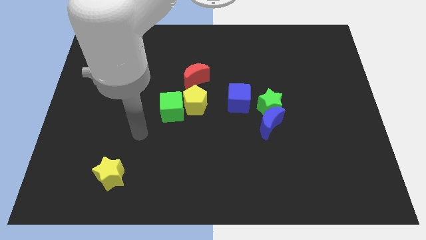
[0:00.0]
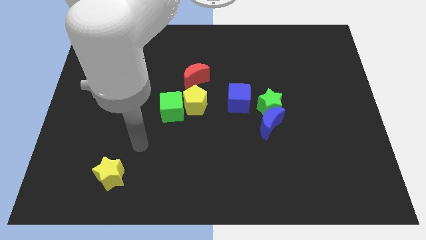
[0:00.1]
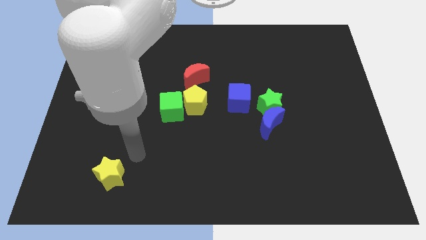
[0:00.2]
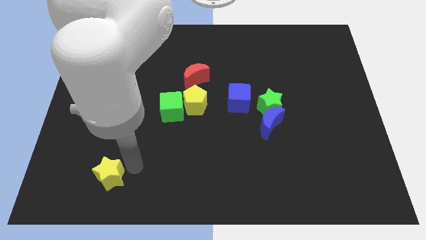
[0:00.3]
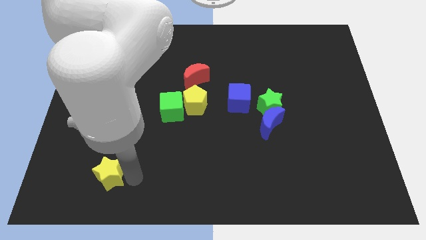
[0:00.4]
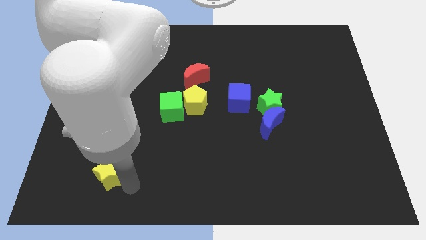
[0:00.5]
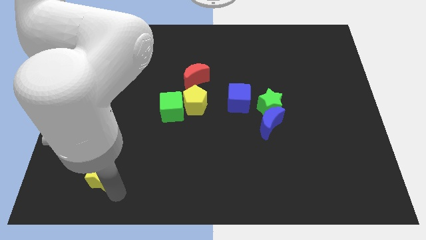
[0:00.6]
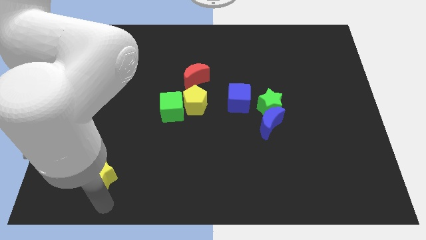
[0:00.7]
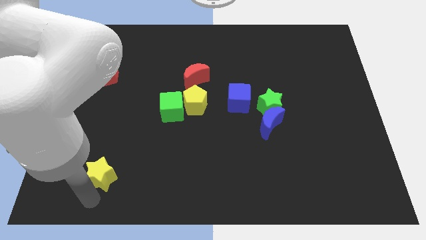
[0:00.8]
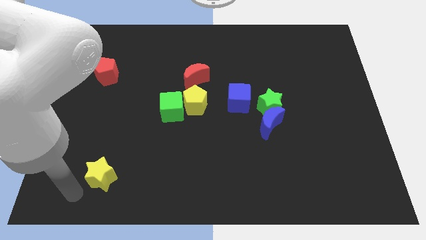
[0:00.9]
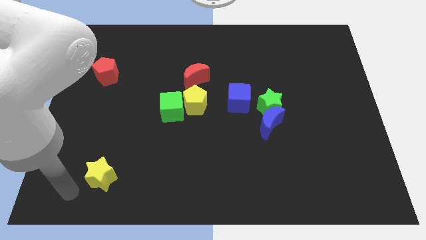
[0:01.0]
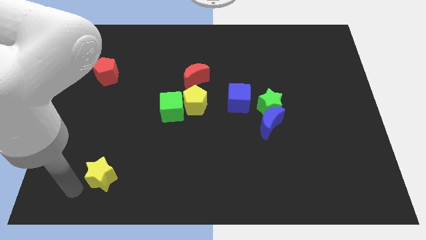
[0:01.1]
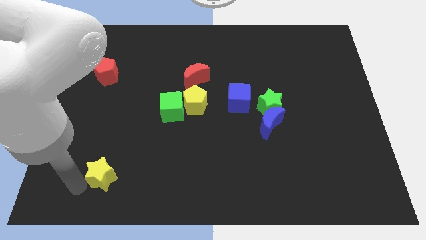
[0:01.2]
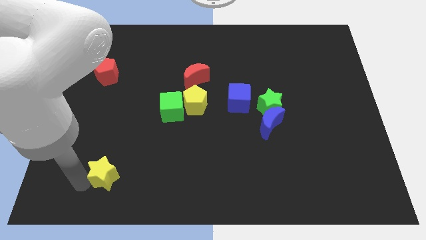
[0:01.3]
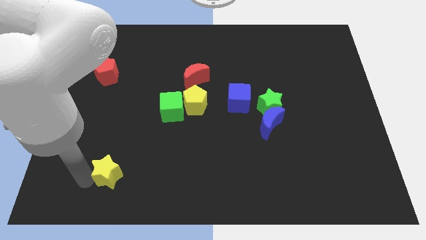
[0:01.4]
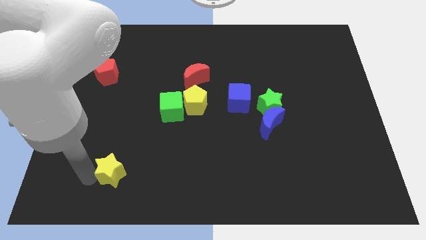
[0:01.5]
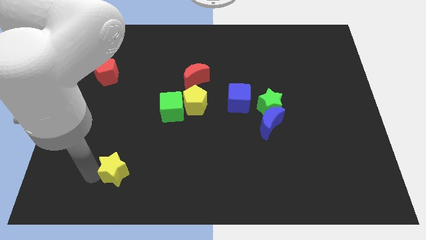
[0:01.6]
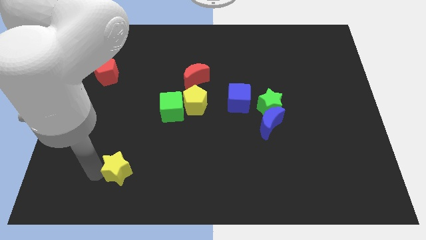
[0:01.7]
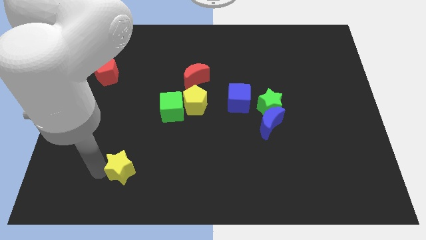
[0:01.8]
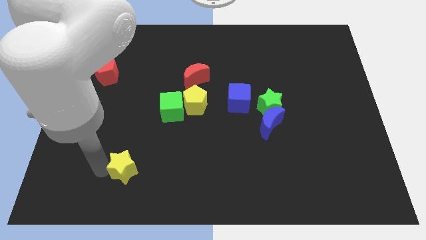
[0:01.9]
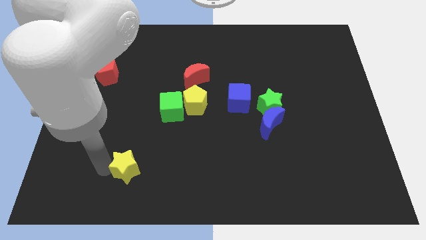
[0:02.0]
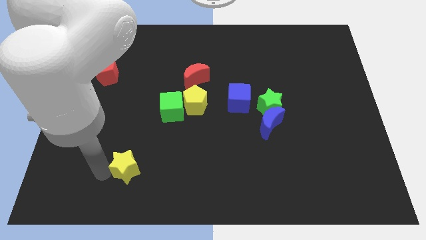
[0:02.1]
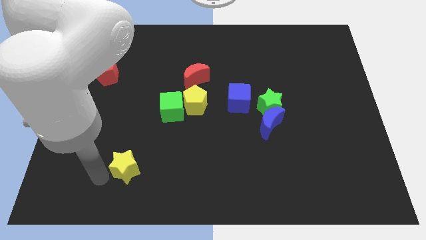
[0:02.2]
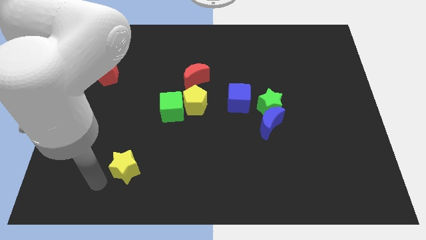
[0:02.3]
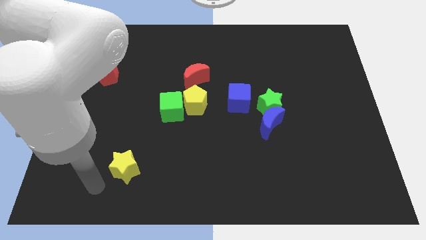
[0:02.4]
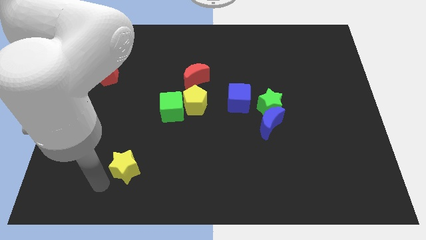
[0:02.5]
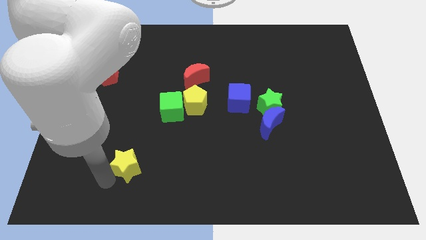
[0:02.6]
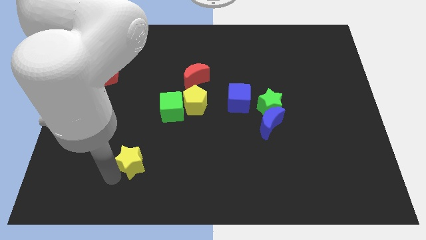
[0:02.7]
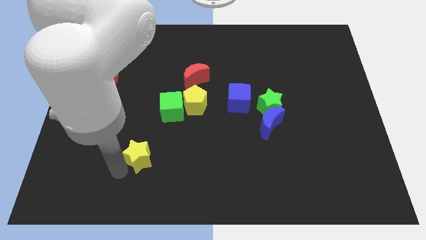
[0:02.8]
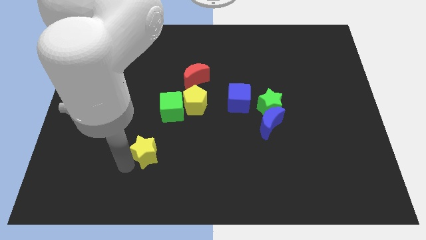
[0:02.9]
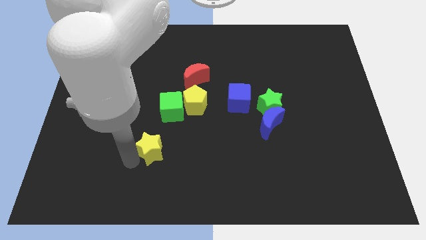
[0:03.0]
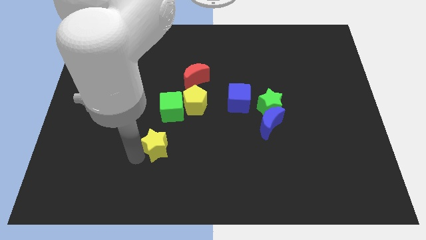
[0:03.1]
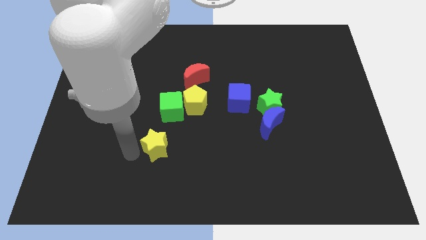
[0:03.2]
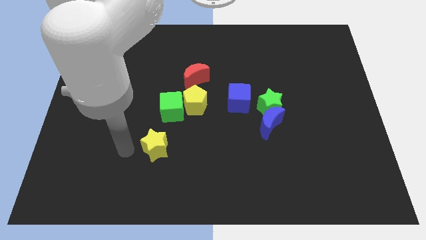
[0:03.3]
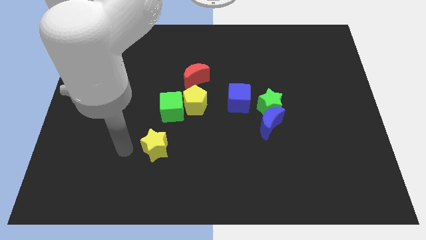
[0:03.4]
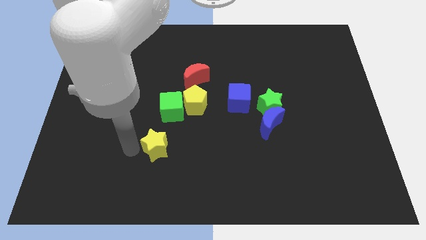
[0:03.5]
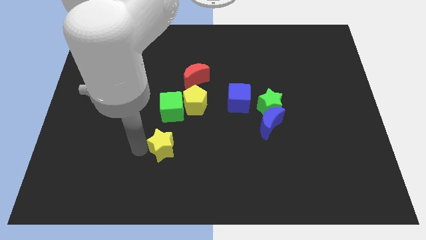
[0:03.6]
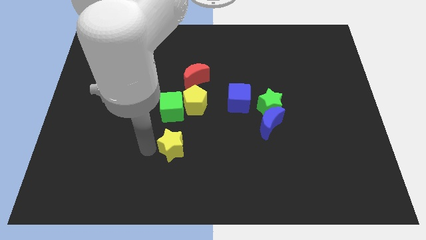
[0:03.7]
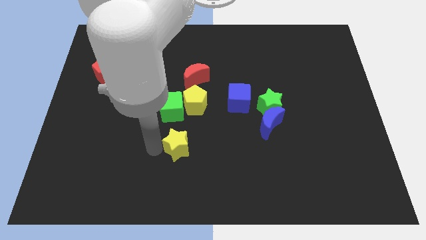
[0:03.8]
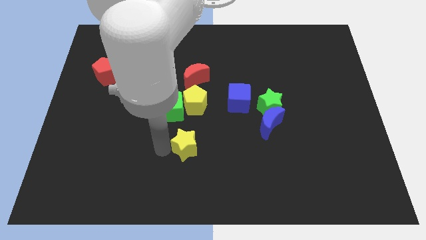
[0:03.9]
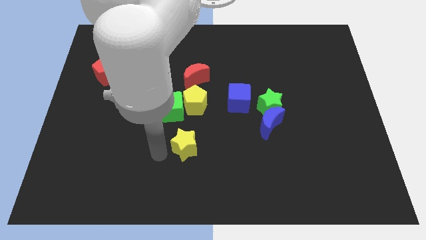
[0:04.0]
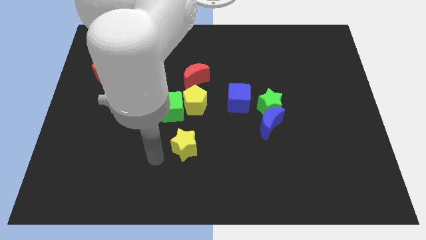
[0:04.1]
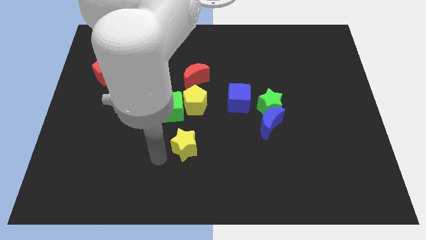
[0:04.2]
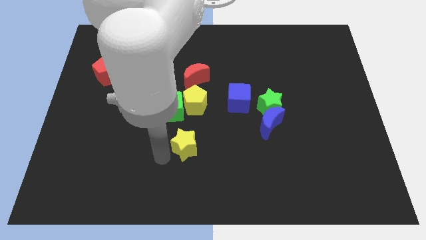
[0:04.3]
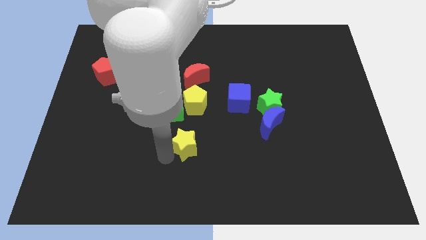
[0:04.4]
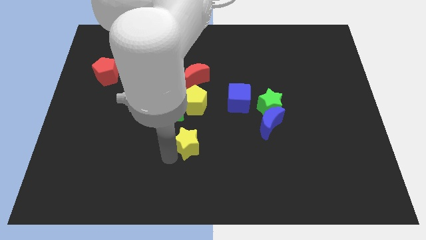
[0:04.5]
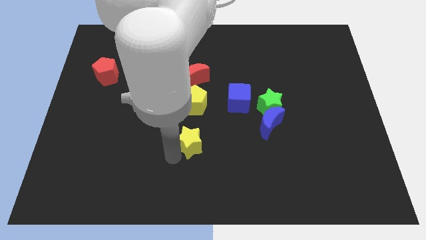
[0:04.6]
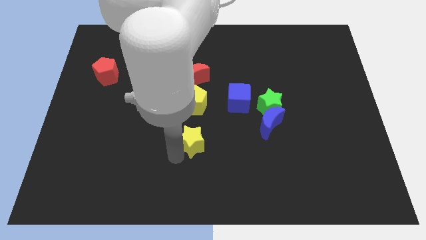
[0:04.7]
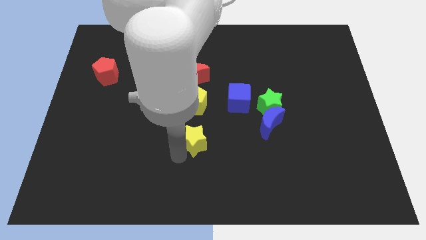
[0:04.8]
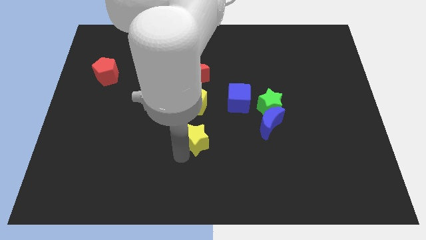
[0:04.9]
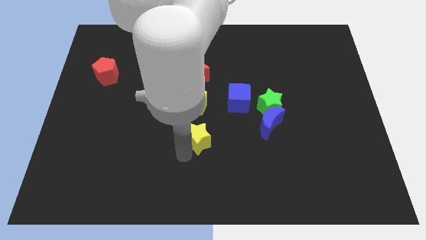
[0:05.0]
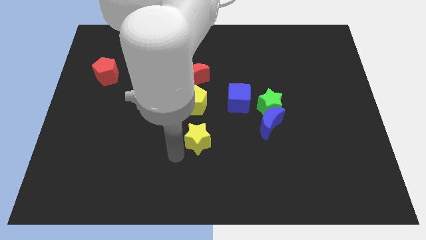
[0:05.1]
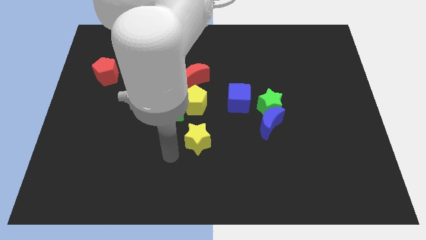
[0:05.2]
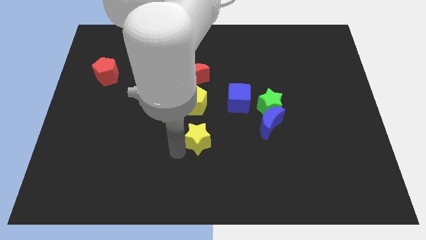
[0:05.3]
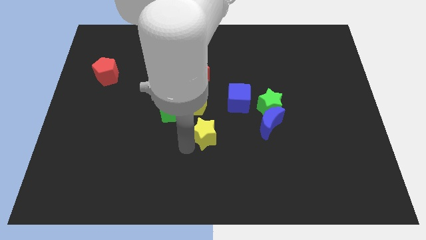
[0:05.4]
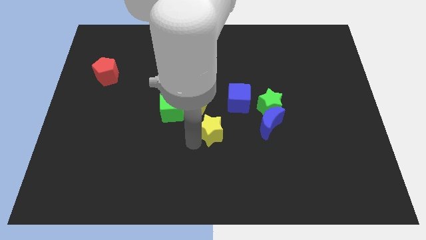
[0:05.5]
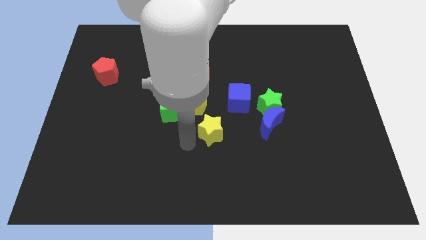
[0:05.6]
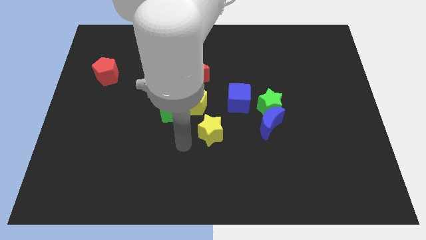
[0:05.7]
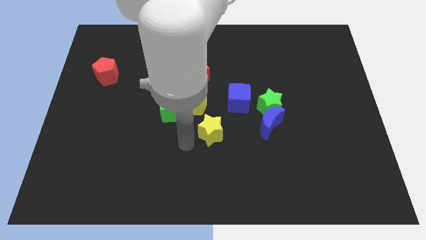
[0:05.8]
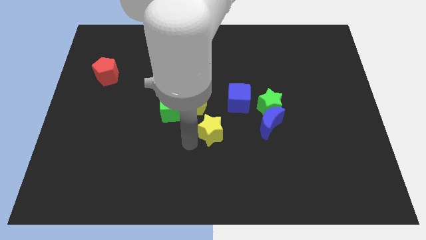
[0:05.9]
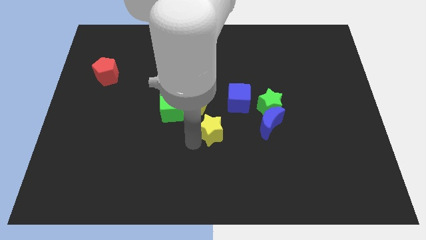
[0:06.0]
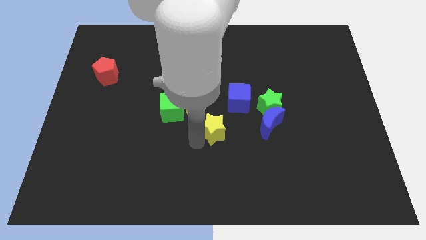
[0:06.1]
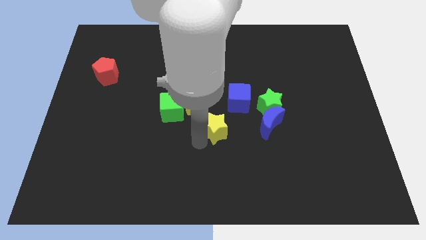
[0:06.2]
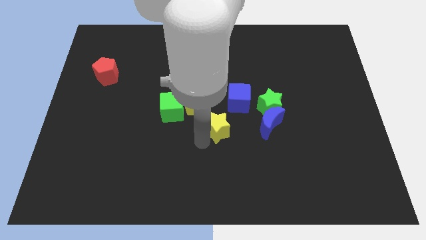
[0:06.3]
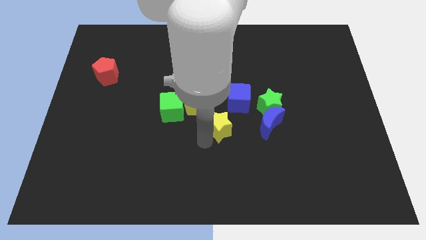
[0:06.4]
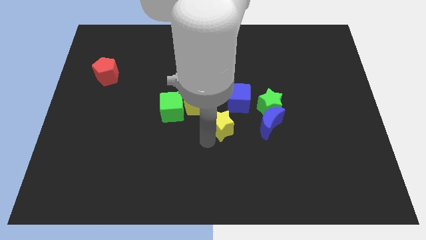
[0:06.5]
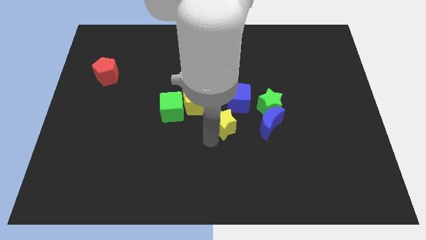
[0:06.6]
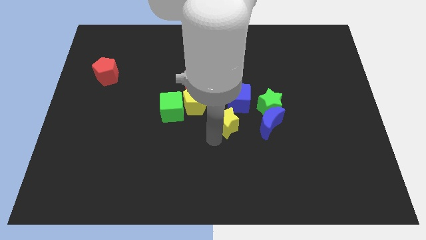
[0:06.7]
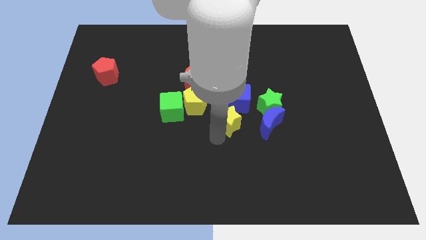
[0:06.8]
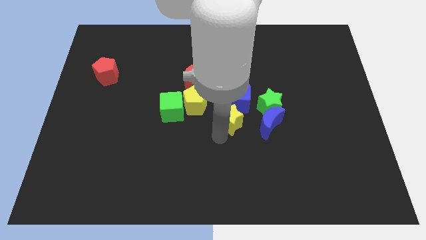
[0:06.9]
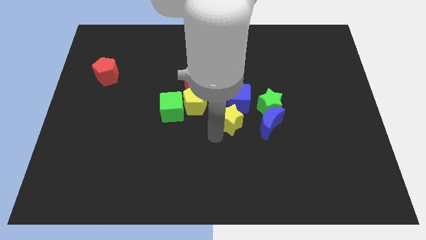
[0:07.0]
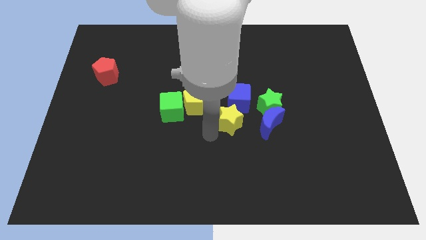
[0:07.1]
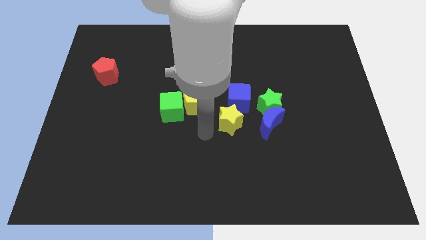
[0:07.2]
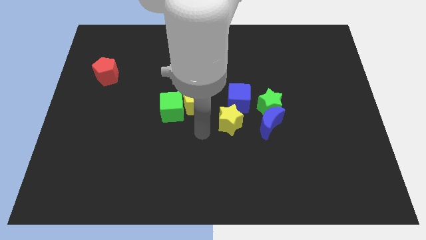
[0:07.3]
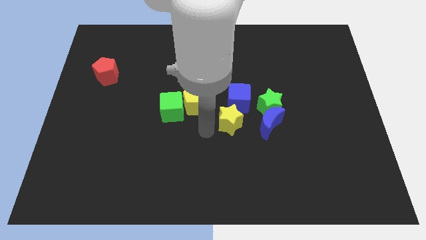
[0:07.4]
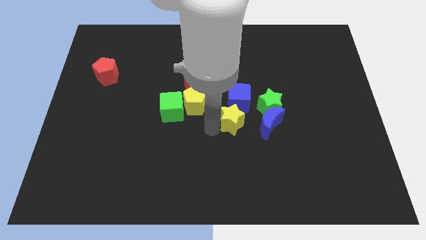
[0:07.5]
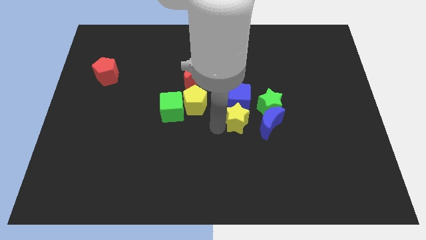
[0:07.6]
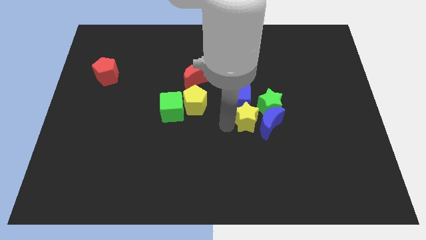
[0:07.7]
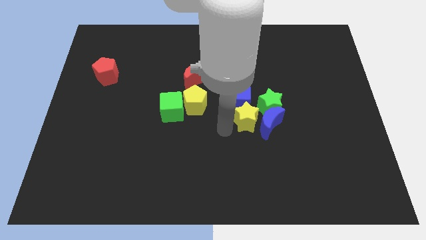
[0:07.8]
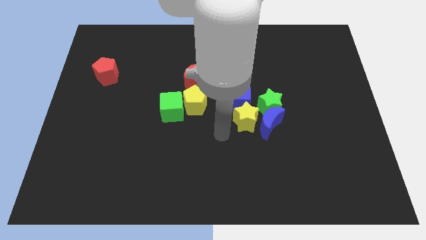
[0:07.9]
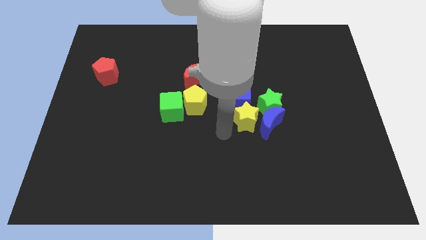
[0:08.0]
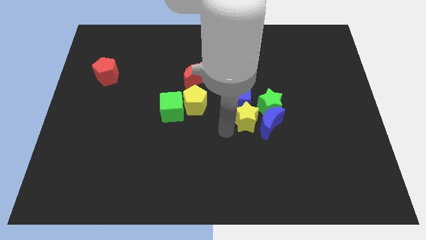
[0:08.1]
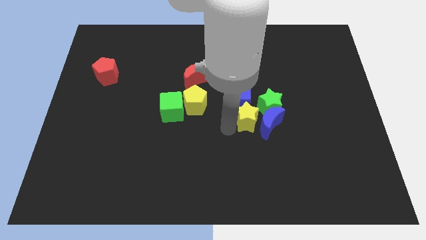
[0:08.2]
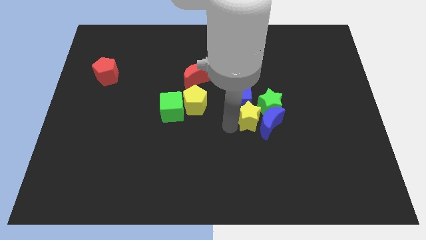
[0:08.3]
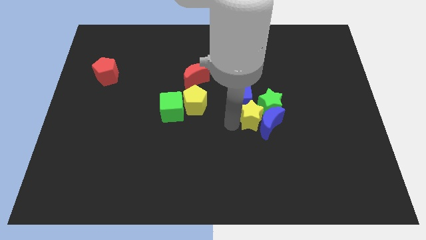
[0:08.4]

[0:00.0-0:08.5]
move the yellow star towards the green star
